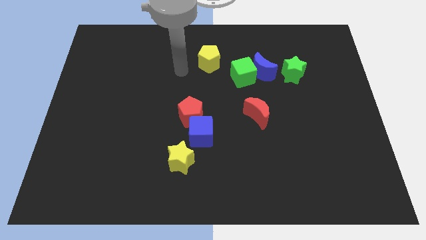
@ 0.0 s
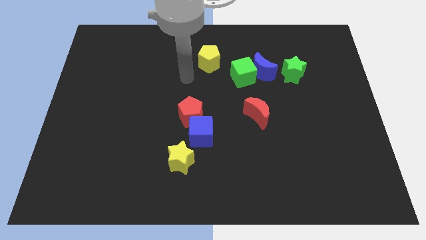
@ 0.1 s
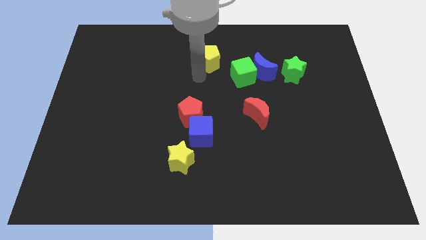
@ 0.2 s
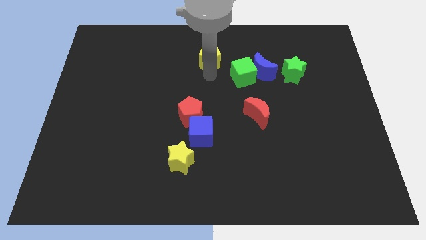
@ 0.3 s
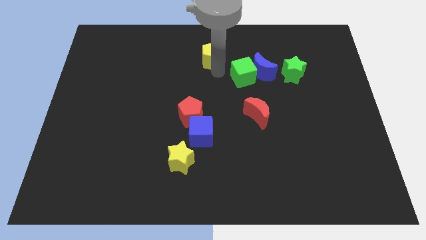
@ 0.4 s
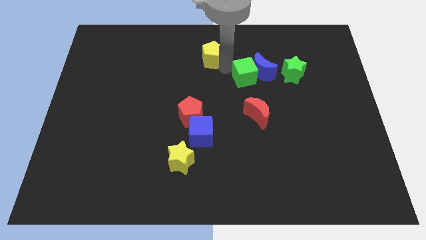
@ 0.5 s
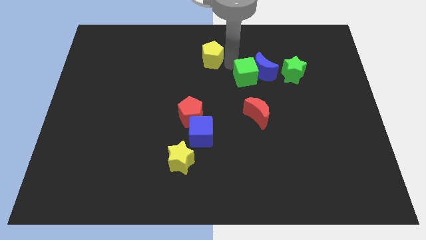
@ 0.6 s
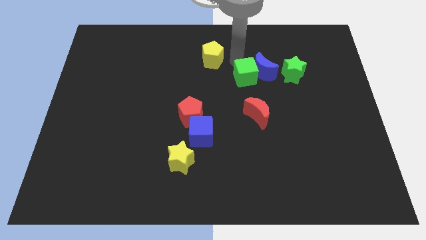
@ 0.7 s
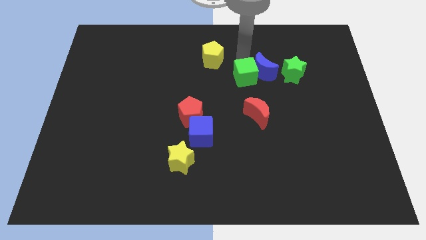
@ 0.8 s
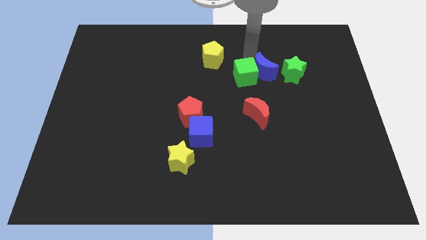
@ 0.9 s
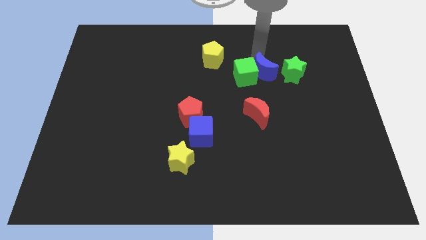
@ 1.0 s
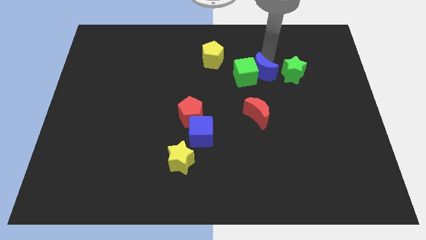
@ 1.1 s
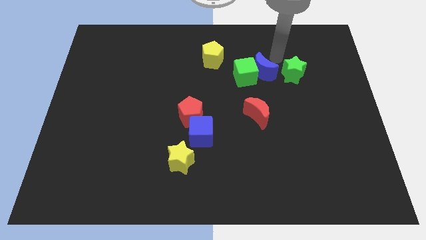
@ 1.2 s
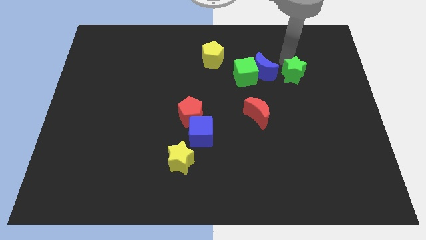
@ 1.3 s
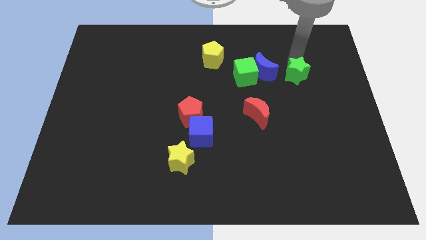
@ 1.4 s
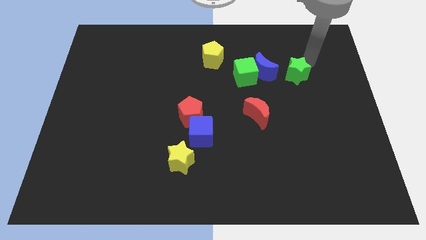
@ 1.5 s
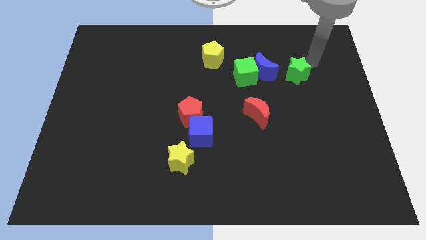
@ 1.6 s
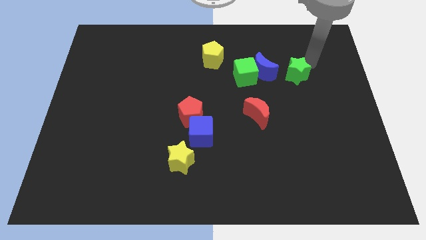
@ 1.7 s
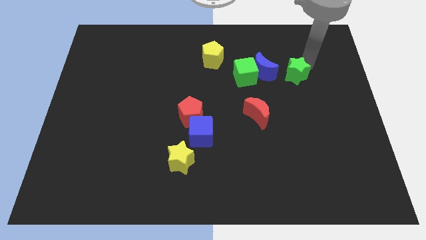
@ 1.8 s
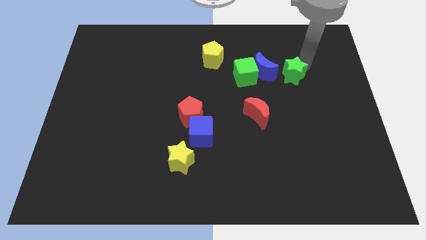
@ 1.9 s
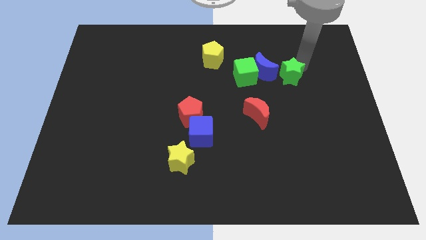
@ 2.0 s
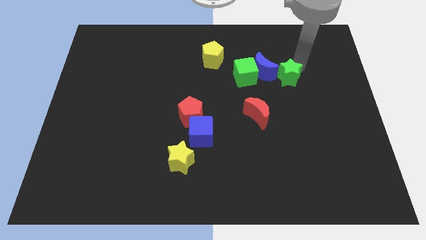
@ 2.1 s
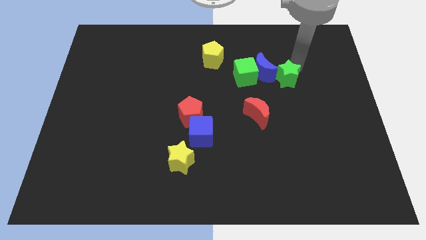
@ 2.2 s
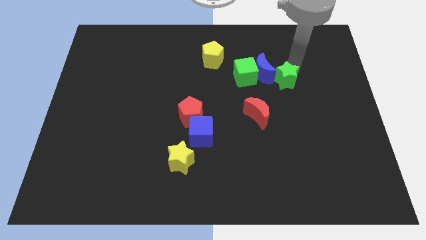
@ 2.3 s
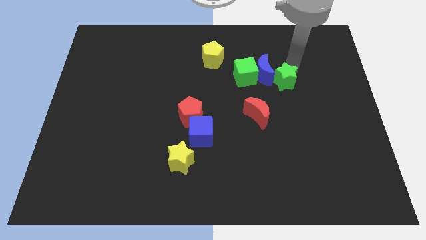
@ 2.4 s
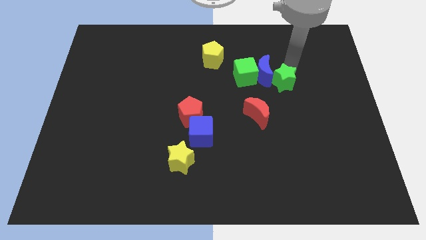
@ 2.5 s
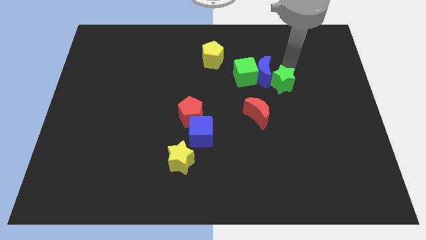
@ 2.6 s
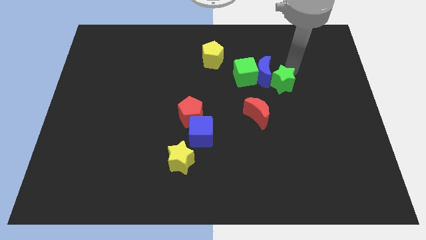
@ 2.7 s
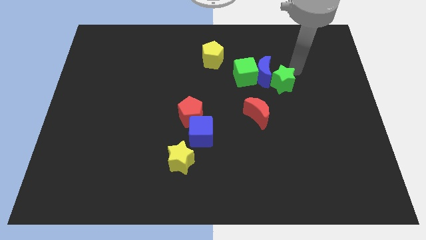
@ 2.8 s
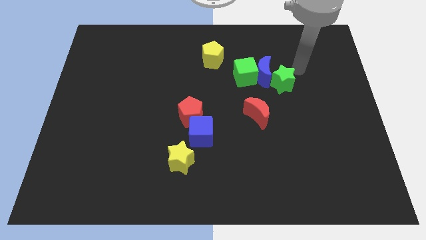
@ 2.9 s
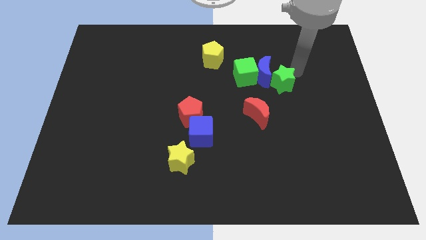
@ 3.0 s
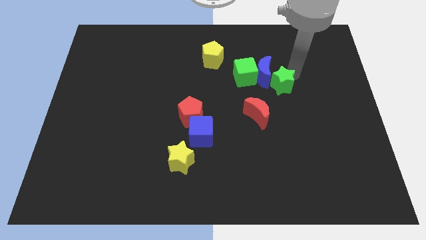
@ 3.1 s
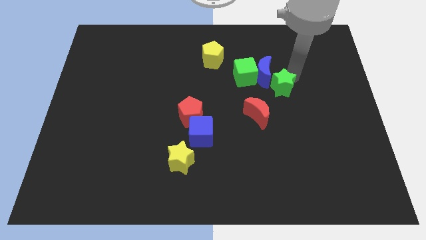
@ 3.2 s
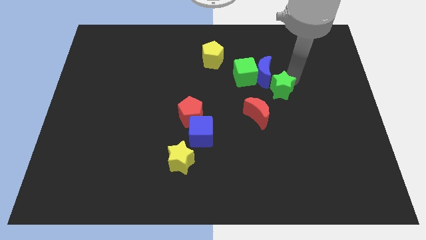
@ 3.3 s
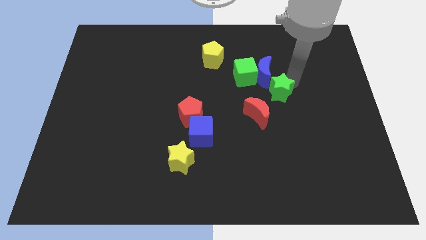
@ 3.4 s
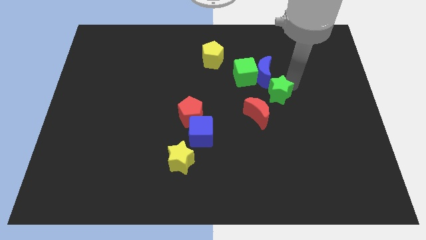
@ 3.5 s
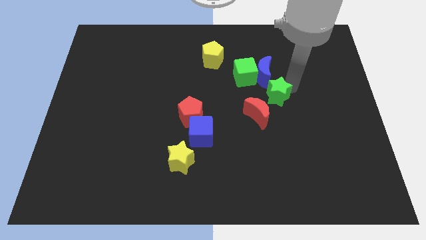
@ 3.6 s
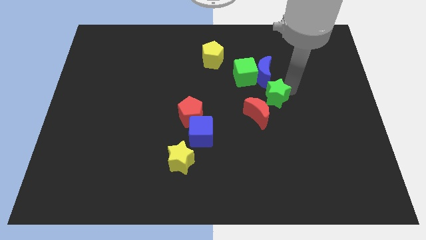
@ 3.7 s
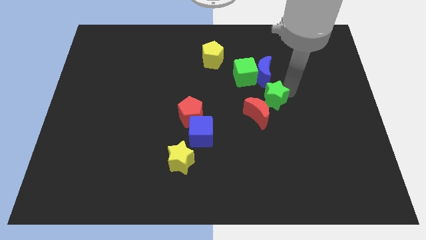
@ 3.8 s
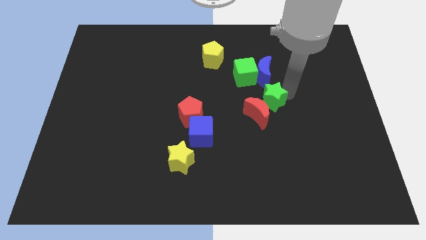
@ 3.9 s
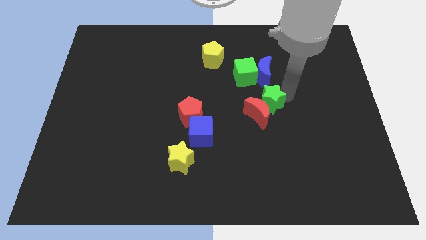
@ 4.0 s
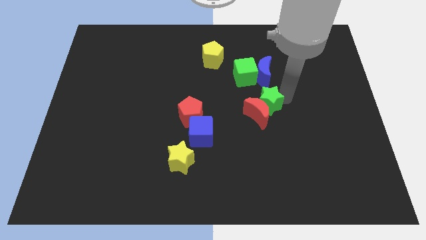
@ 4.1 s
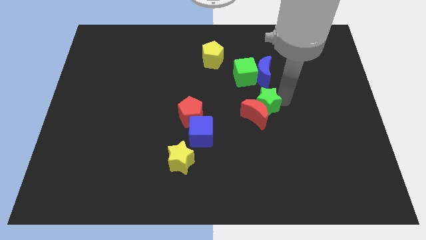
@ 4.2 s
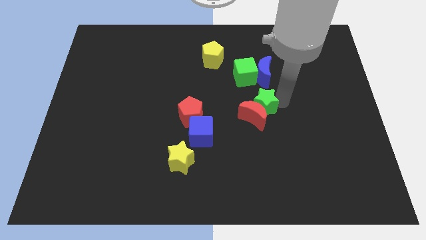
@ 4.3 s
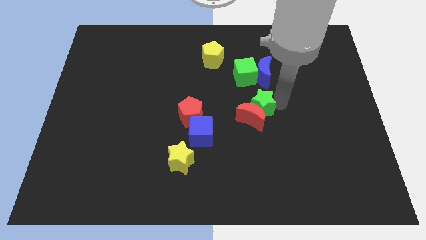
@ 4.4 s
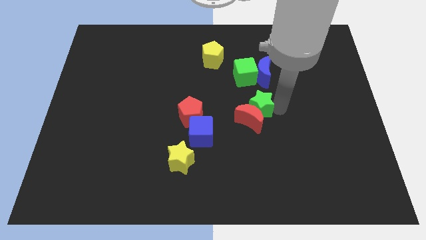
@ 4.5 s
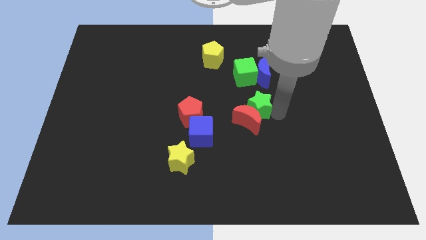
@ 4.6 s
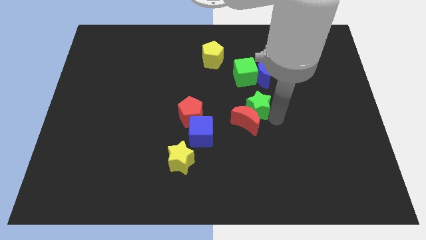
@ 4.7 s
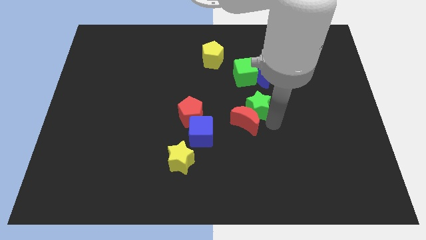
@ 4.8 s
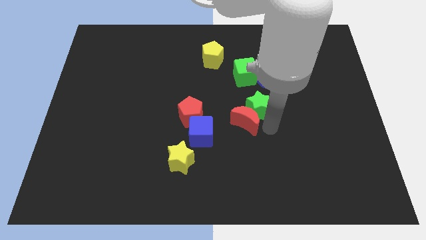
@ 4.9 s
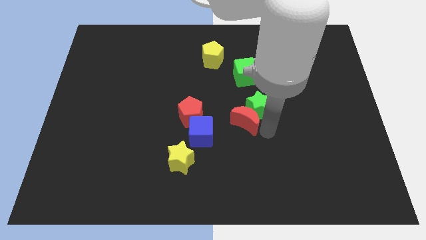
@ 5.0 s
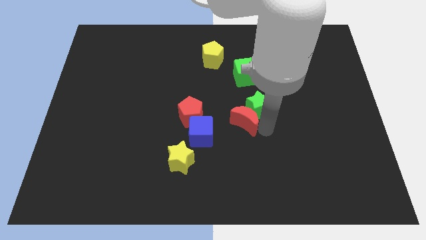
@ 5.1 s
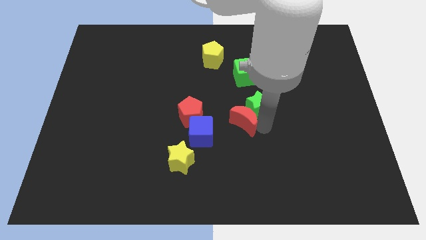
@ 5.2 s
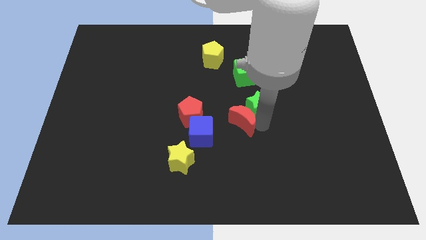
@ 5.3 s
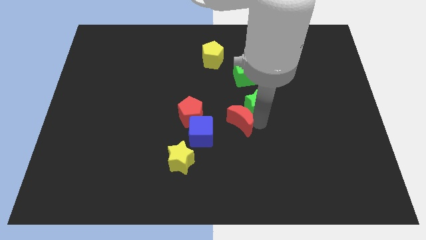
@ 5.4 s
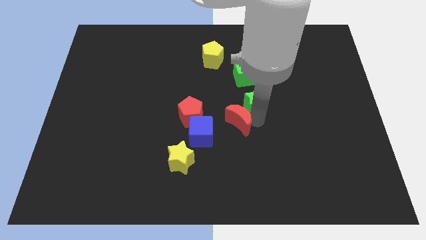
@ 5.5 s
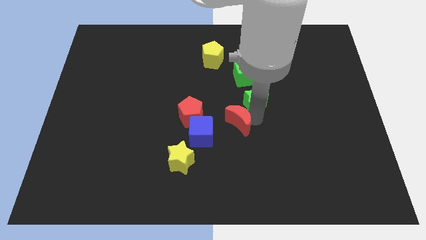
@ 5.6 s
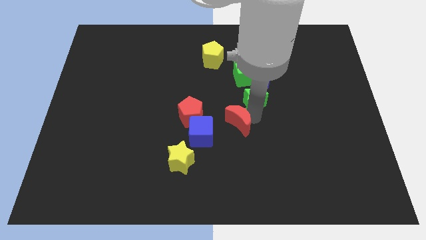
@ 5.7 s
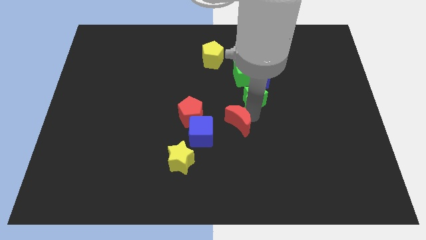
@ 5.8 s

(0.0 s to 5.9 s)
slide the green star slightly left

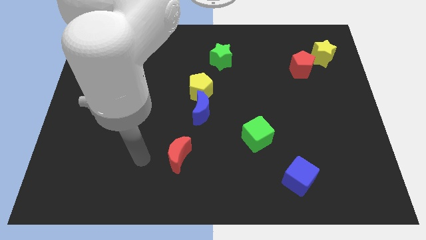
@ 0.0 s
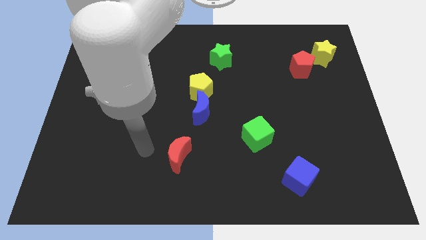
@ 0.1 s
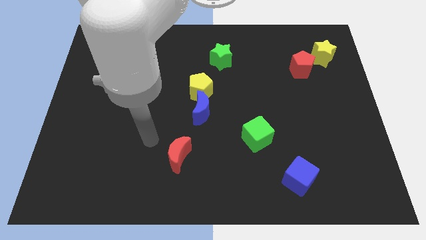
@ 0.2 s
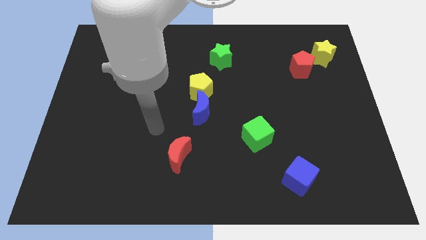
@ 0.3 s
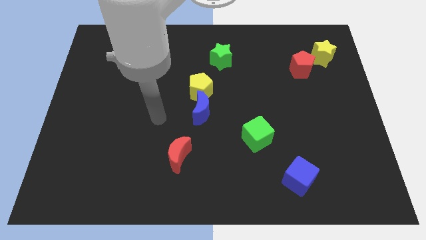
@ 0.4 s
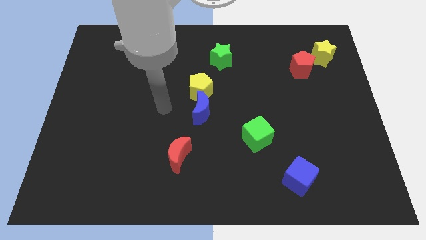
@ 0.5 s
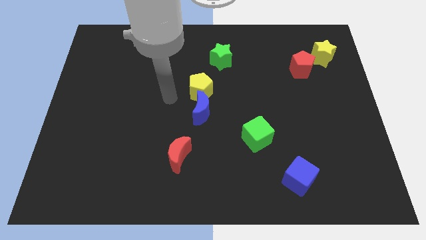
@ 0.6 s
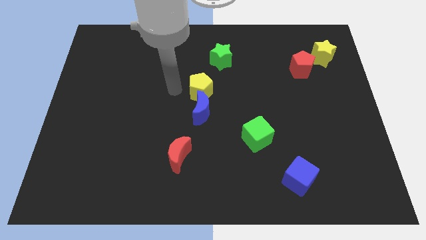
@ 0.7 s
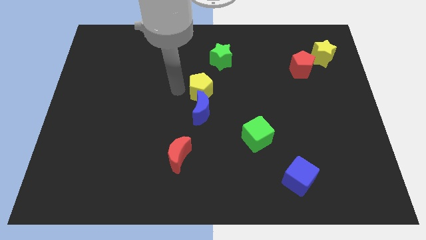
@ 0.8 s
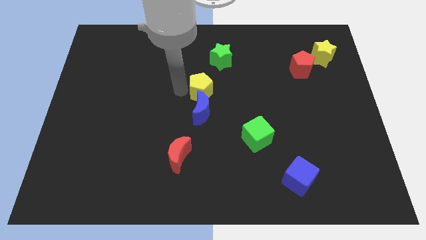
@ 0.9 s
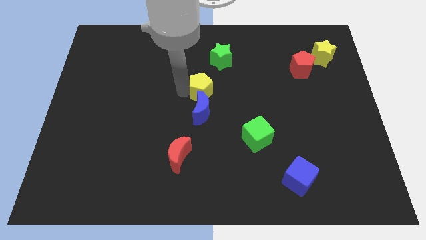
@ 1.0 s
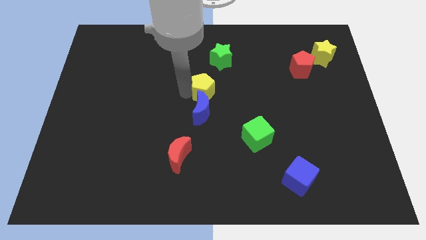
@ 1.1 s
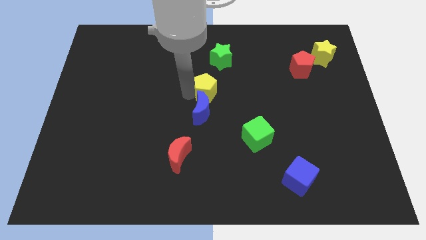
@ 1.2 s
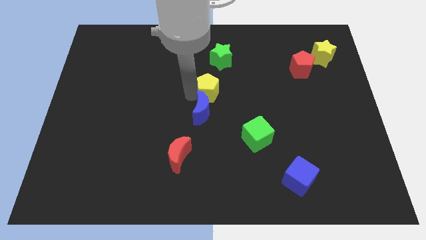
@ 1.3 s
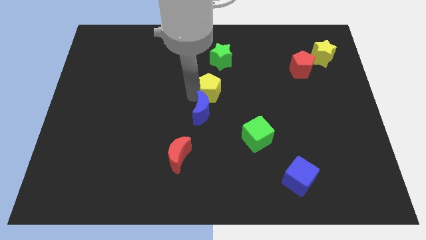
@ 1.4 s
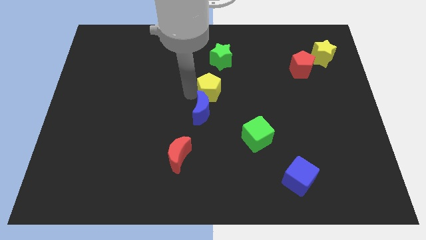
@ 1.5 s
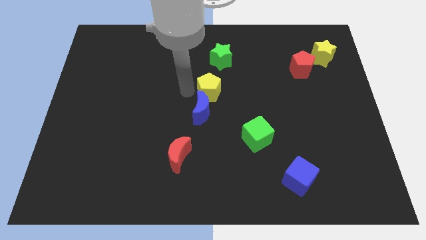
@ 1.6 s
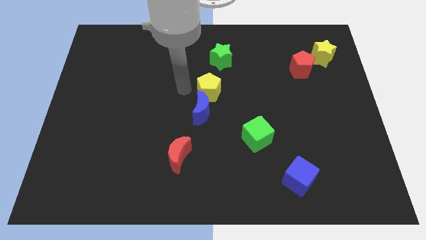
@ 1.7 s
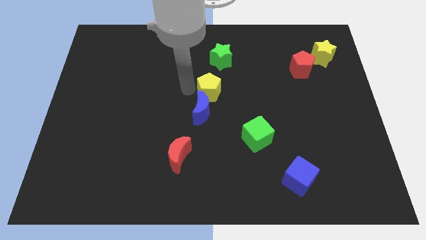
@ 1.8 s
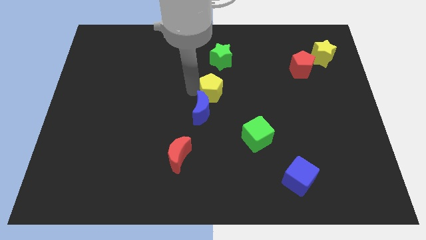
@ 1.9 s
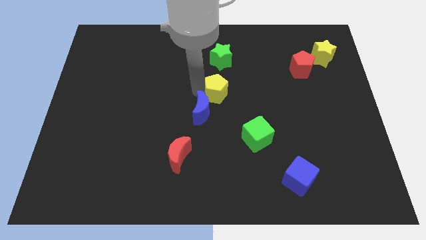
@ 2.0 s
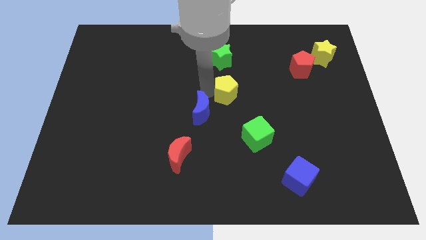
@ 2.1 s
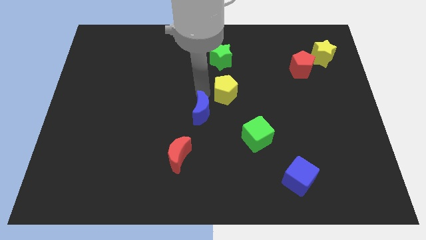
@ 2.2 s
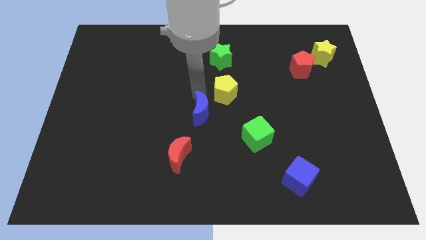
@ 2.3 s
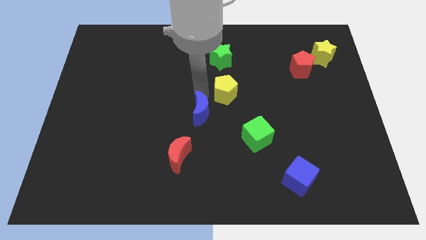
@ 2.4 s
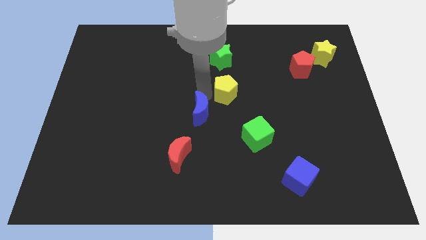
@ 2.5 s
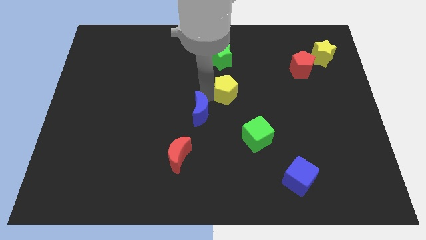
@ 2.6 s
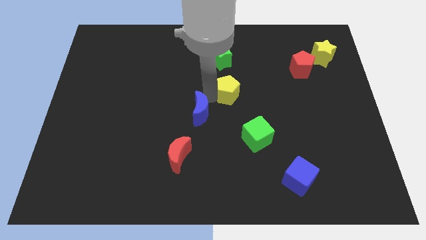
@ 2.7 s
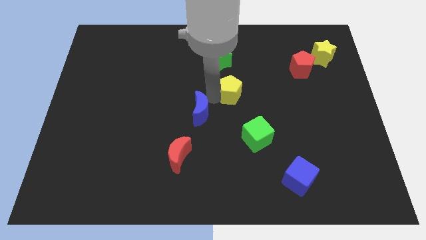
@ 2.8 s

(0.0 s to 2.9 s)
move the yellow pentagon somewhat right
